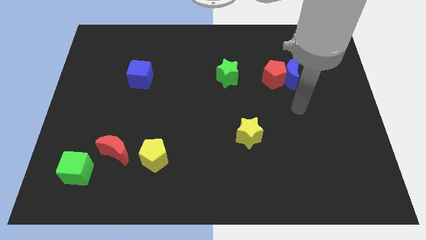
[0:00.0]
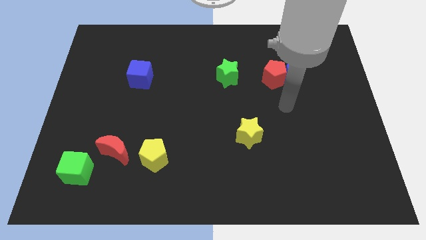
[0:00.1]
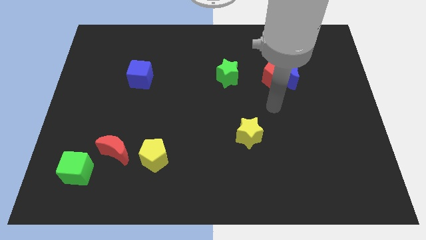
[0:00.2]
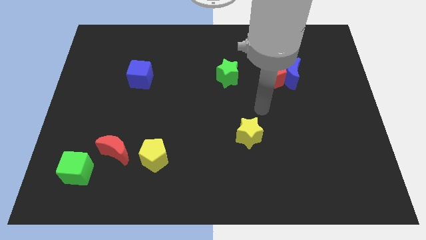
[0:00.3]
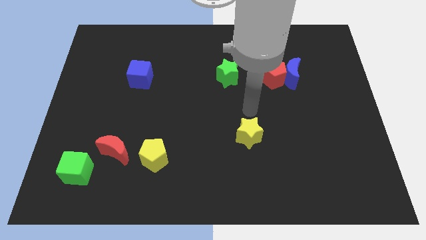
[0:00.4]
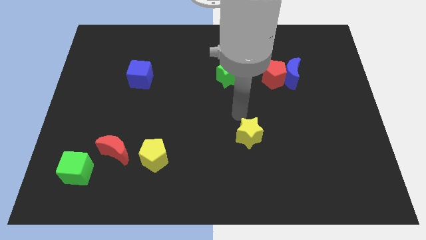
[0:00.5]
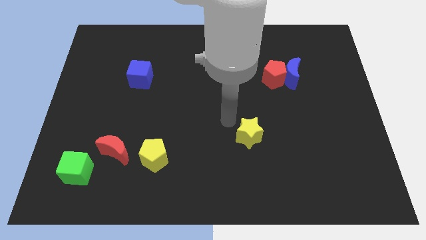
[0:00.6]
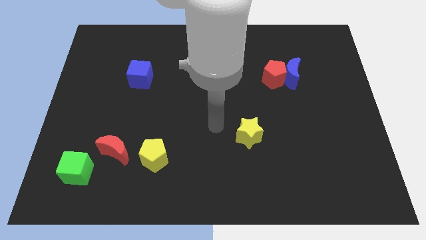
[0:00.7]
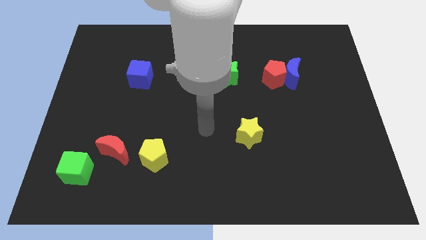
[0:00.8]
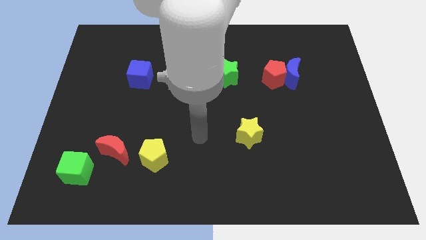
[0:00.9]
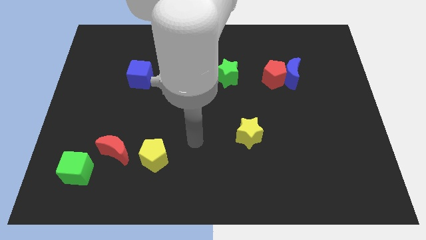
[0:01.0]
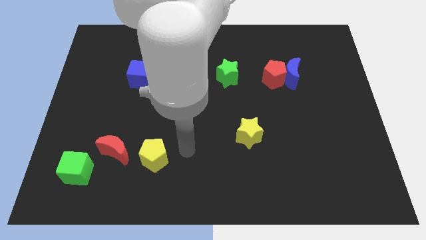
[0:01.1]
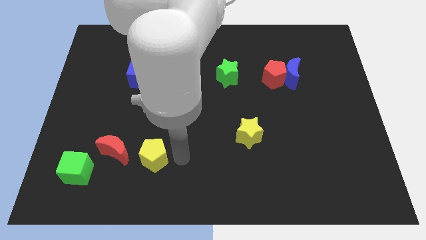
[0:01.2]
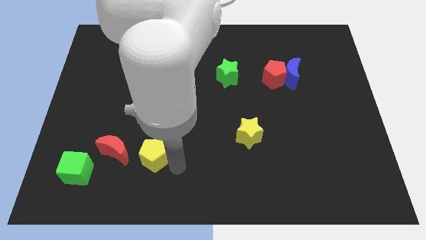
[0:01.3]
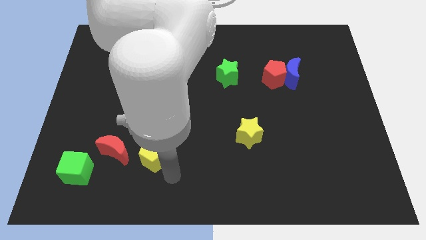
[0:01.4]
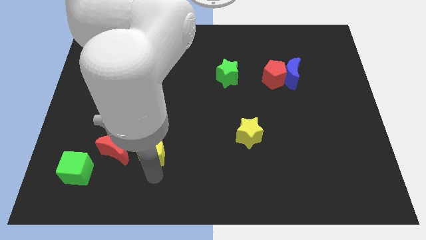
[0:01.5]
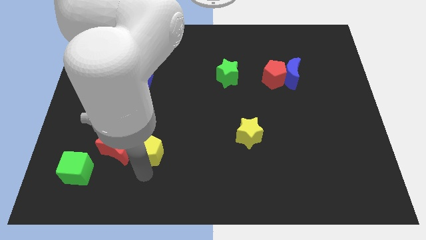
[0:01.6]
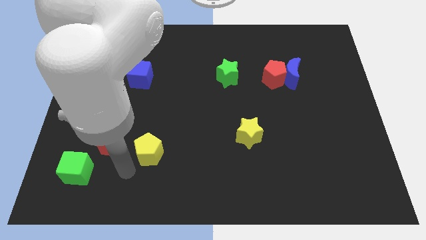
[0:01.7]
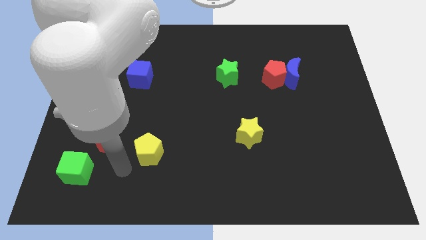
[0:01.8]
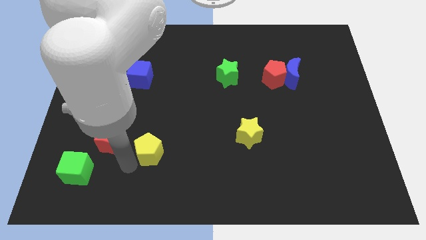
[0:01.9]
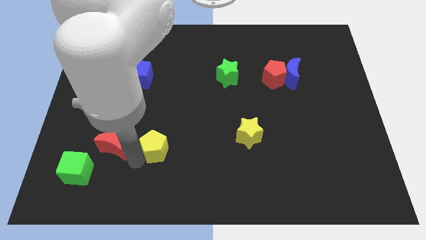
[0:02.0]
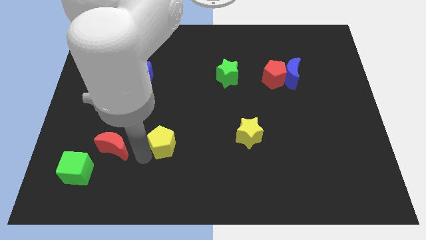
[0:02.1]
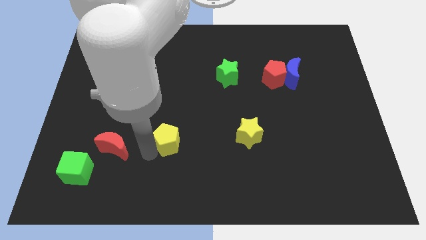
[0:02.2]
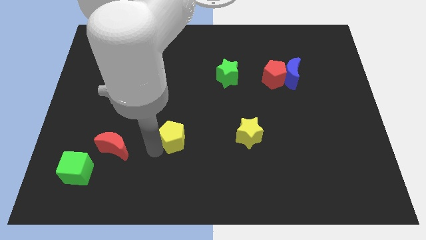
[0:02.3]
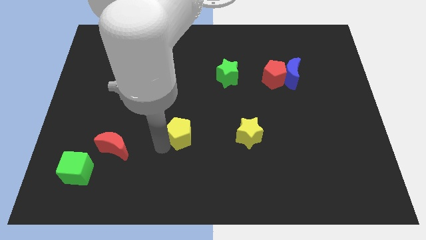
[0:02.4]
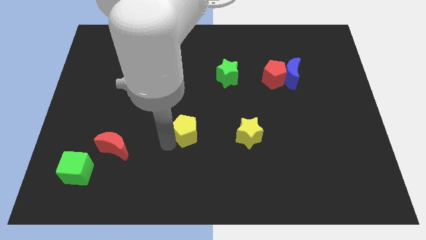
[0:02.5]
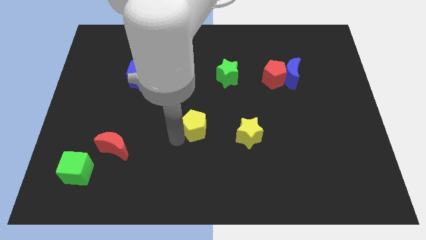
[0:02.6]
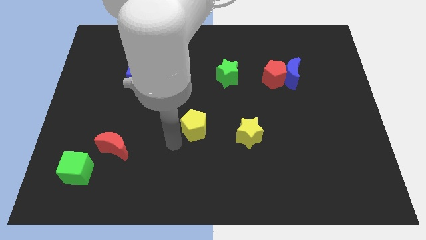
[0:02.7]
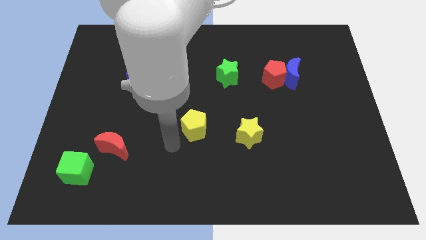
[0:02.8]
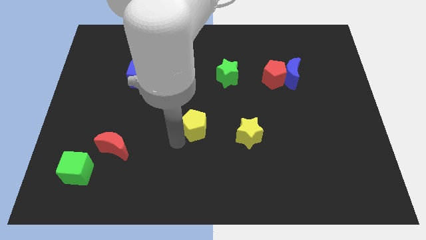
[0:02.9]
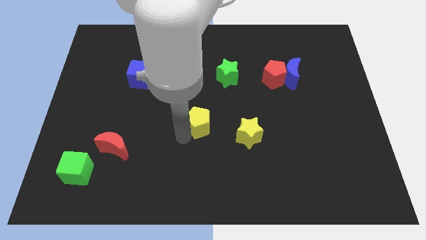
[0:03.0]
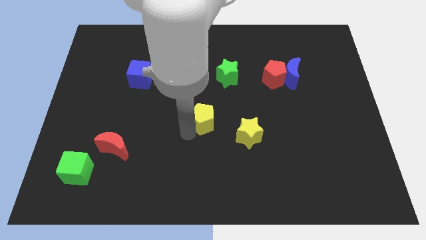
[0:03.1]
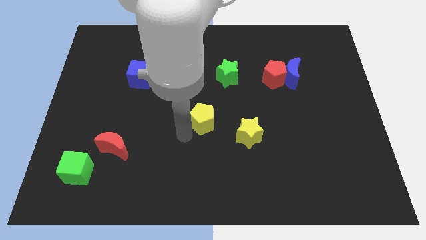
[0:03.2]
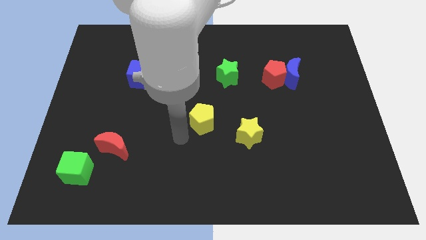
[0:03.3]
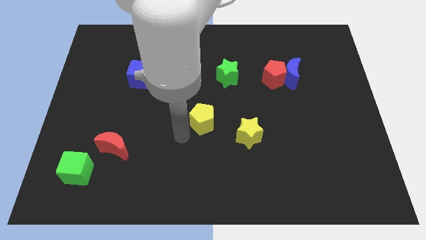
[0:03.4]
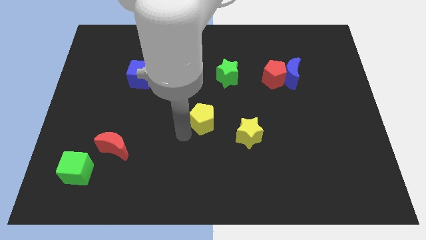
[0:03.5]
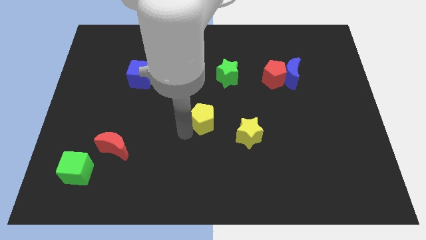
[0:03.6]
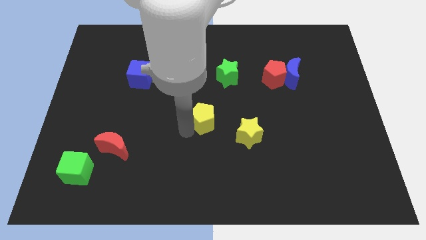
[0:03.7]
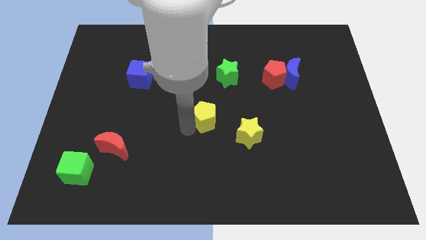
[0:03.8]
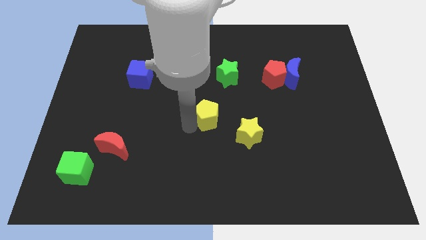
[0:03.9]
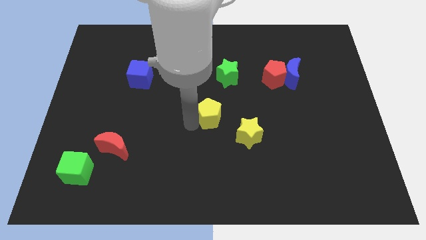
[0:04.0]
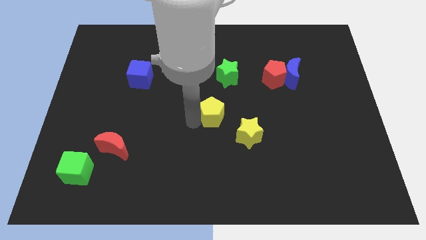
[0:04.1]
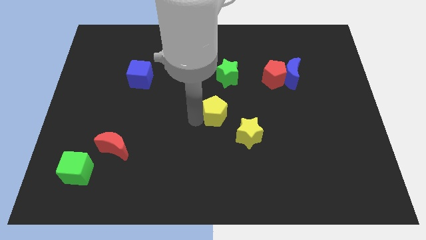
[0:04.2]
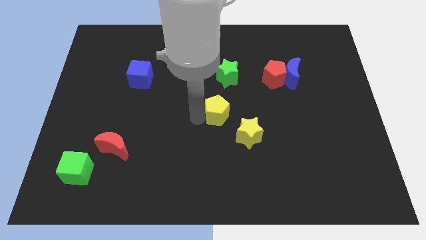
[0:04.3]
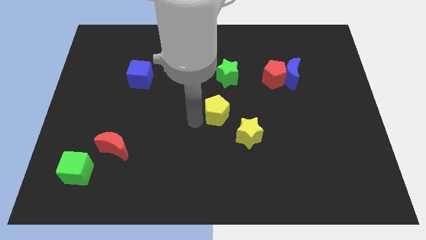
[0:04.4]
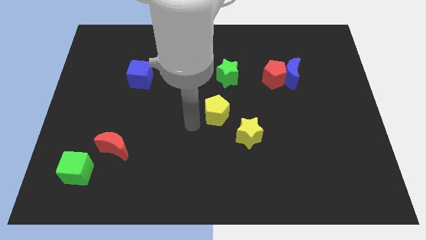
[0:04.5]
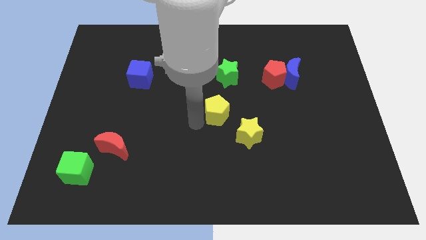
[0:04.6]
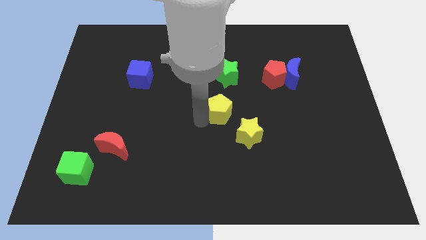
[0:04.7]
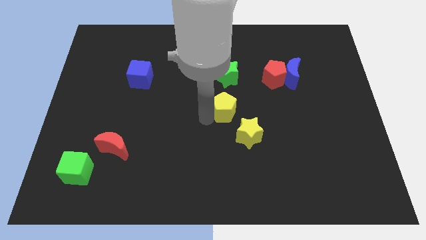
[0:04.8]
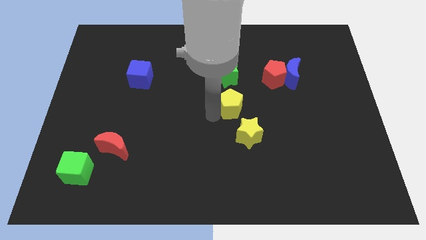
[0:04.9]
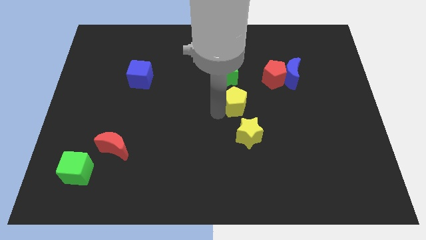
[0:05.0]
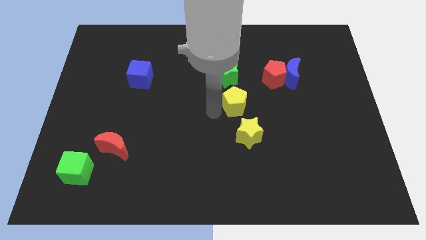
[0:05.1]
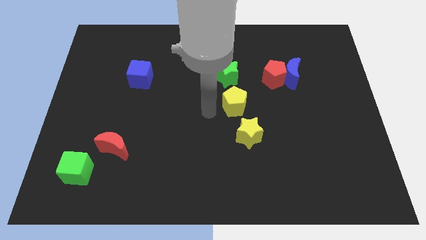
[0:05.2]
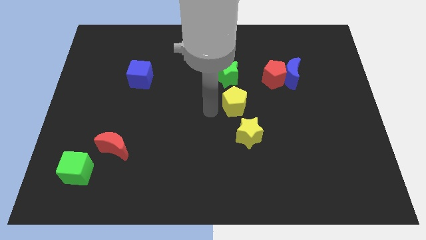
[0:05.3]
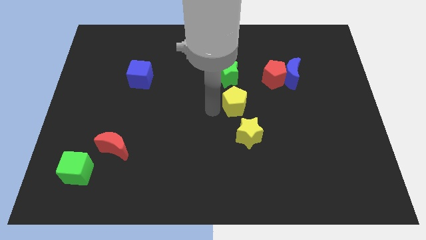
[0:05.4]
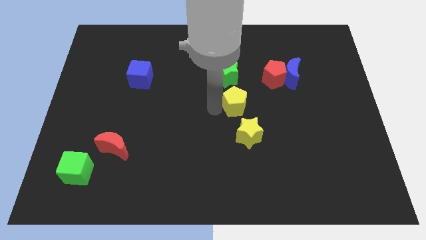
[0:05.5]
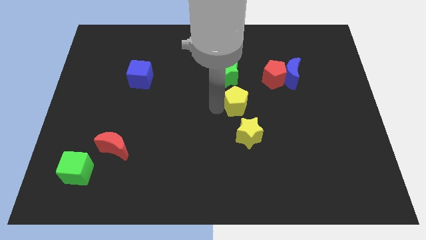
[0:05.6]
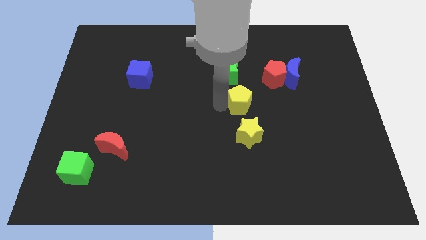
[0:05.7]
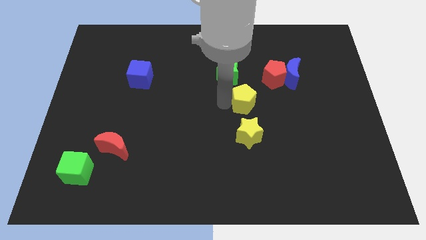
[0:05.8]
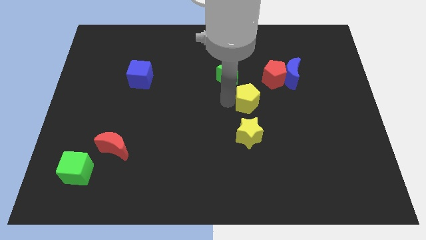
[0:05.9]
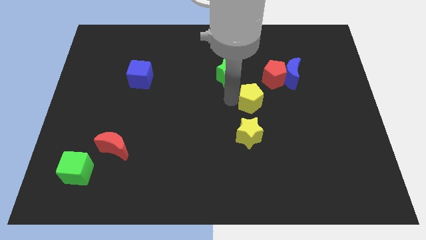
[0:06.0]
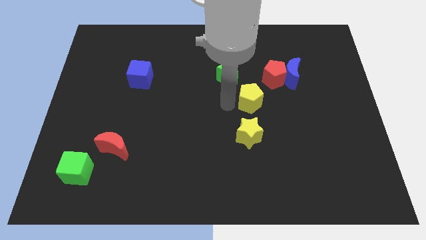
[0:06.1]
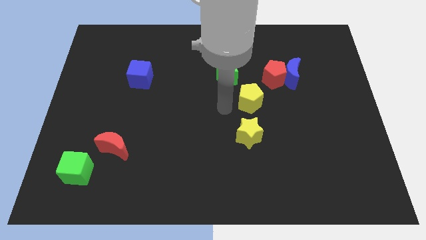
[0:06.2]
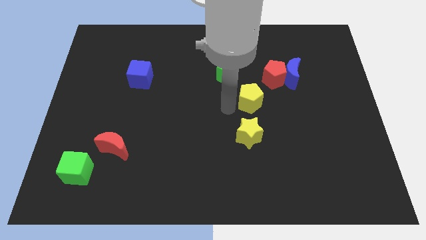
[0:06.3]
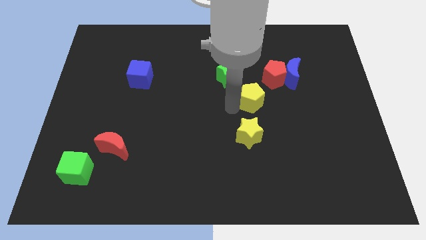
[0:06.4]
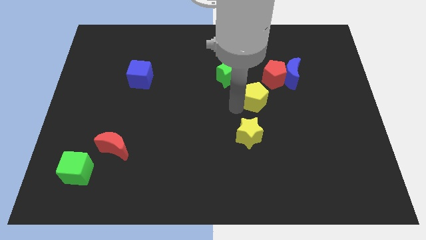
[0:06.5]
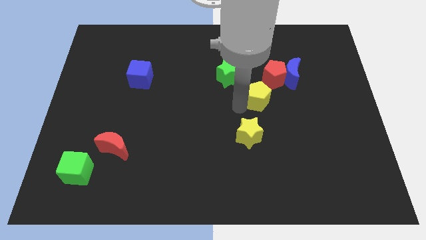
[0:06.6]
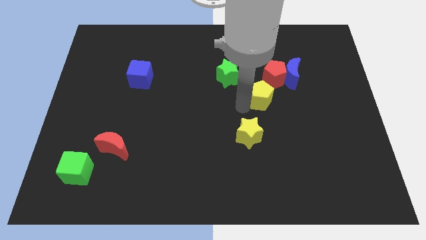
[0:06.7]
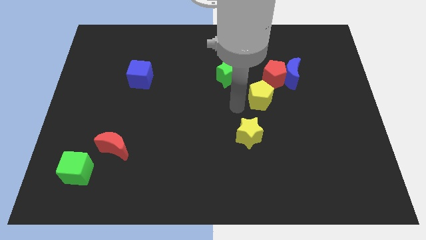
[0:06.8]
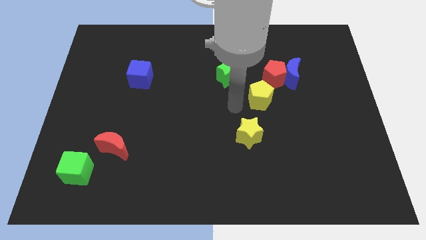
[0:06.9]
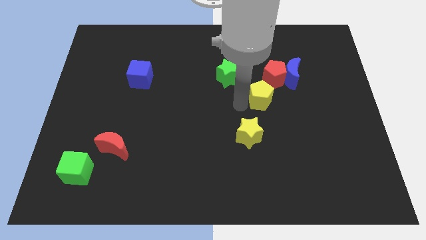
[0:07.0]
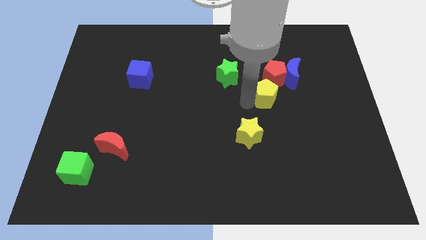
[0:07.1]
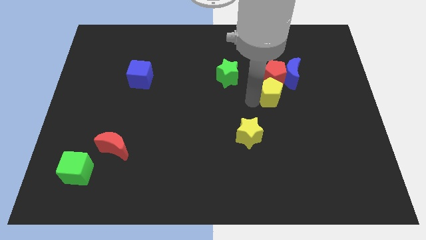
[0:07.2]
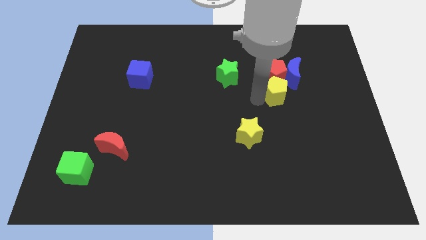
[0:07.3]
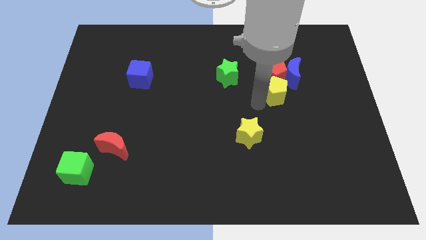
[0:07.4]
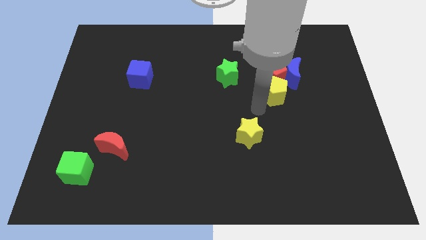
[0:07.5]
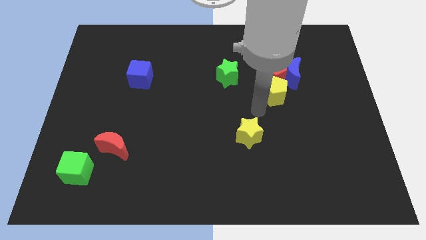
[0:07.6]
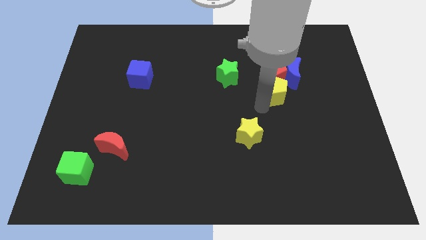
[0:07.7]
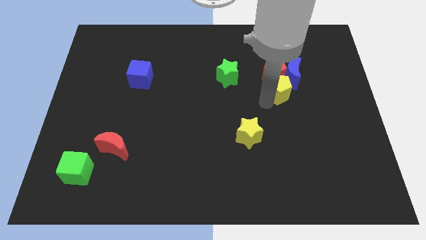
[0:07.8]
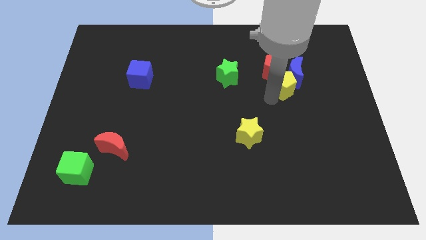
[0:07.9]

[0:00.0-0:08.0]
slide the yellow pentagon close to the blue moon
